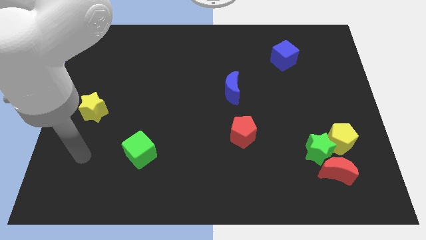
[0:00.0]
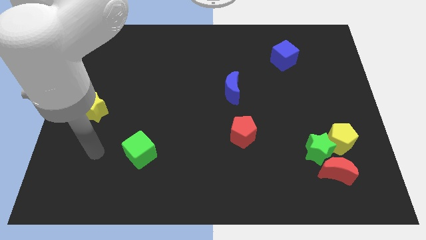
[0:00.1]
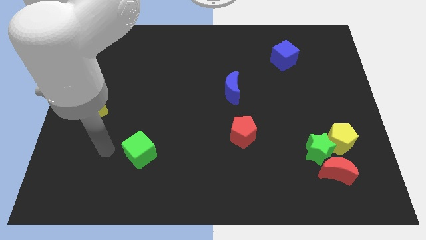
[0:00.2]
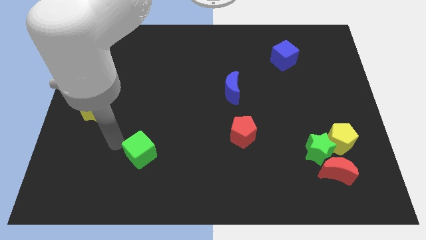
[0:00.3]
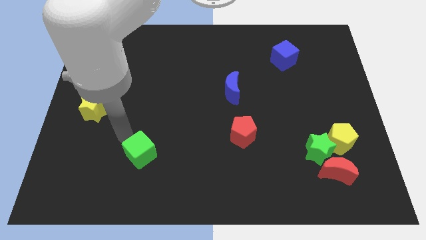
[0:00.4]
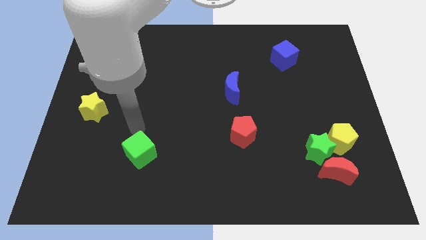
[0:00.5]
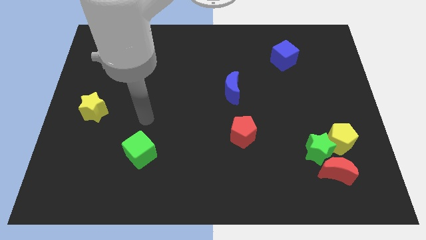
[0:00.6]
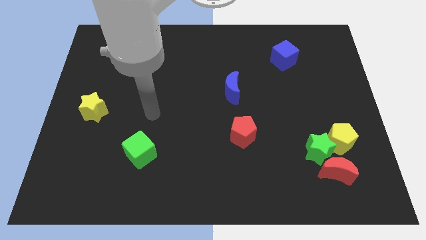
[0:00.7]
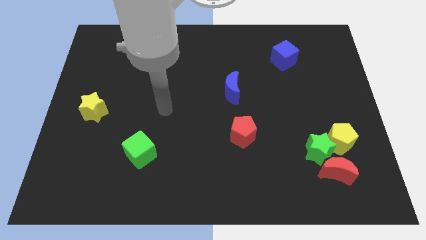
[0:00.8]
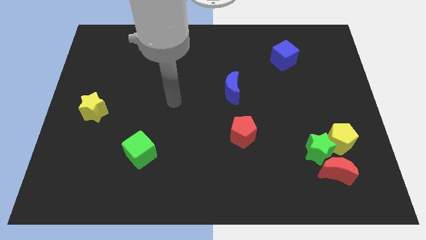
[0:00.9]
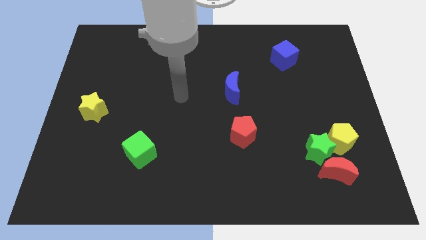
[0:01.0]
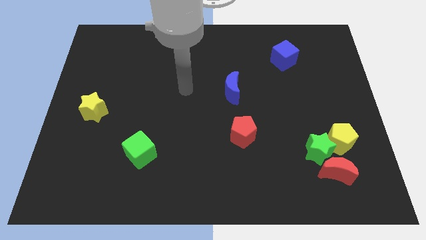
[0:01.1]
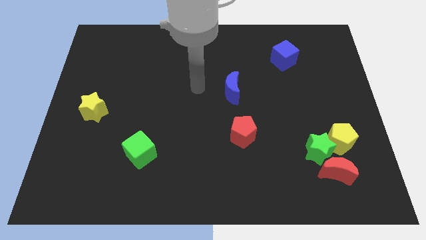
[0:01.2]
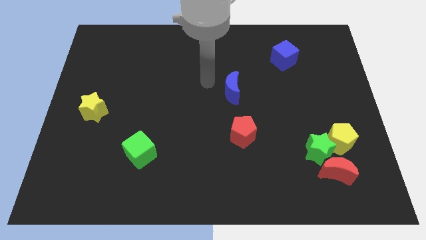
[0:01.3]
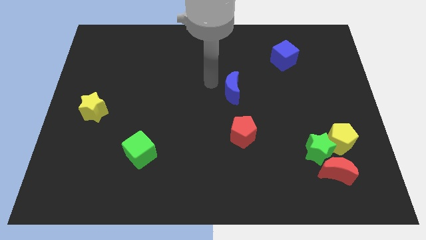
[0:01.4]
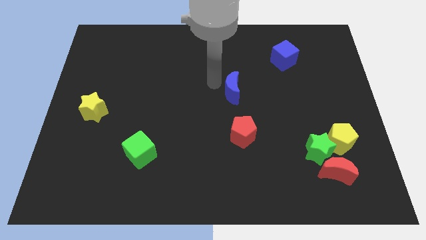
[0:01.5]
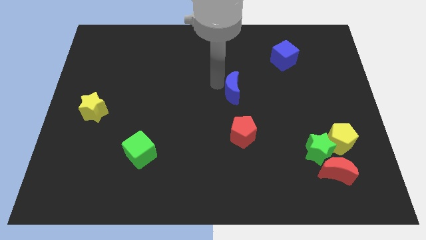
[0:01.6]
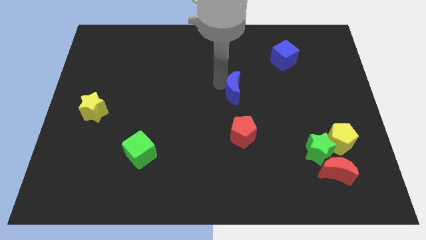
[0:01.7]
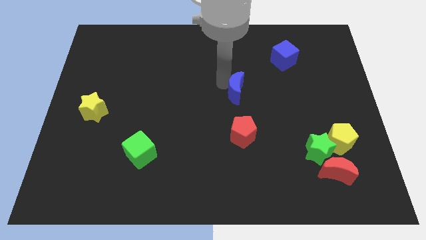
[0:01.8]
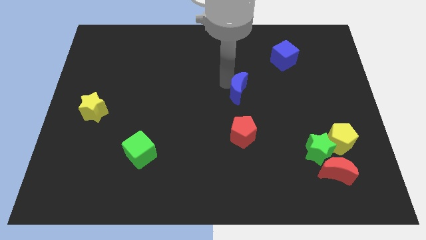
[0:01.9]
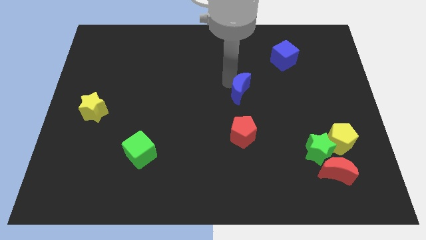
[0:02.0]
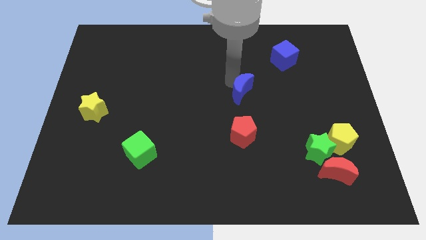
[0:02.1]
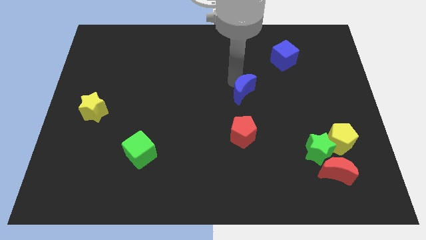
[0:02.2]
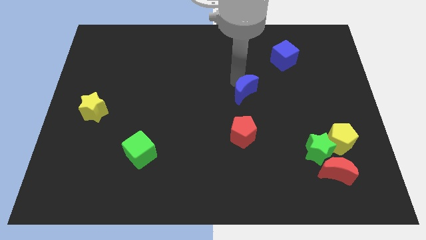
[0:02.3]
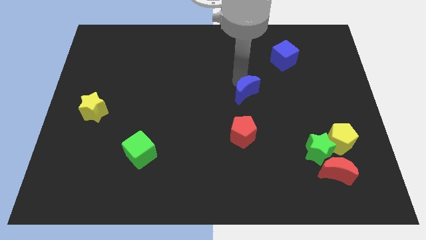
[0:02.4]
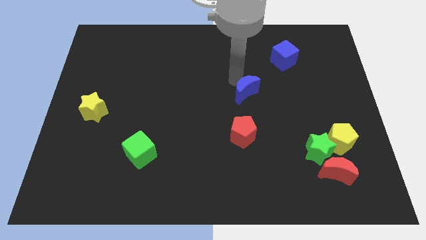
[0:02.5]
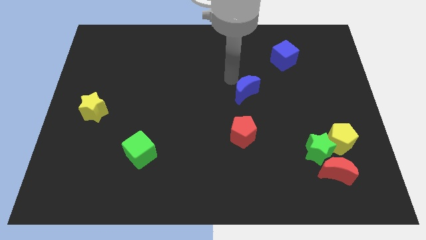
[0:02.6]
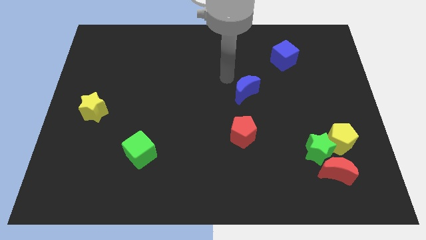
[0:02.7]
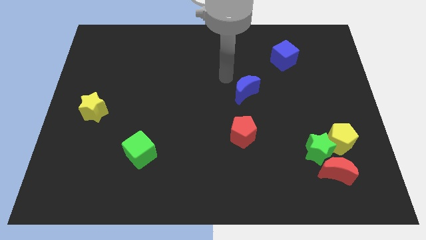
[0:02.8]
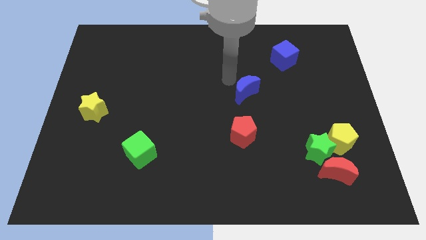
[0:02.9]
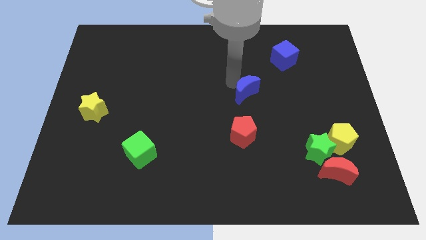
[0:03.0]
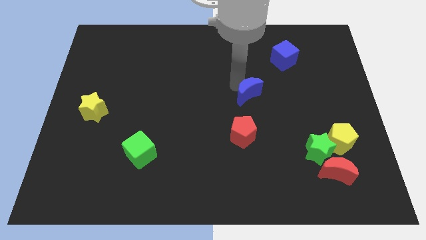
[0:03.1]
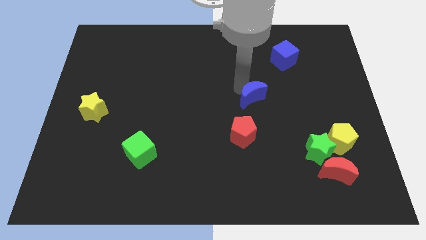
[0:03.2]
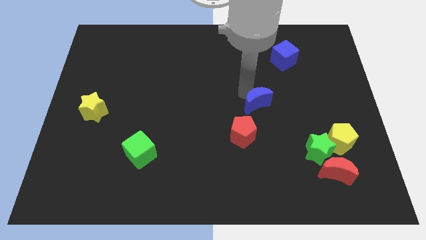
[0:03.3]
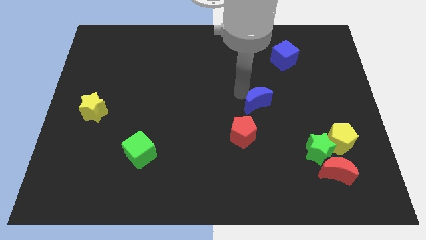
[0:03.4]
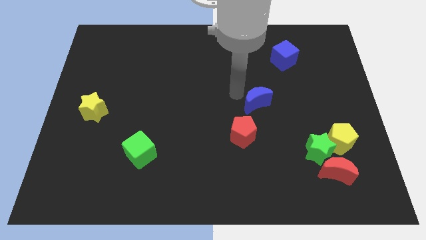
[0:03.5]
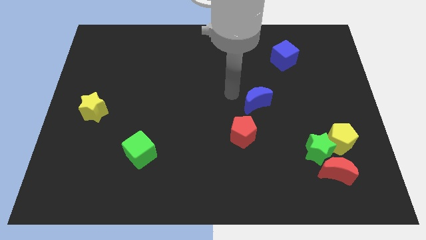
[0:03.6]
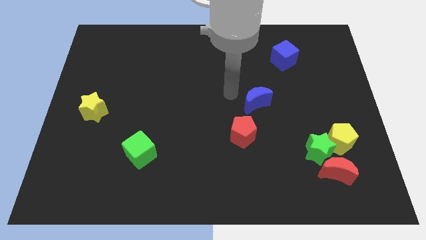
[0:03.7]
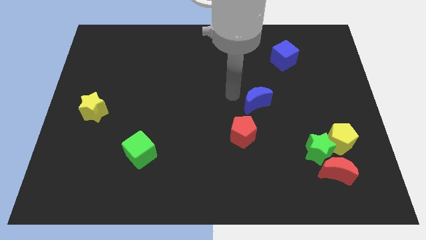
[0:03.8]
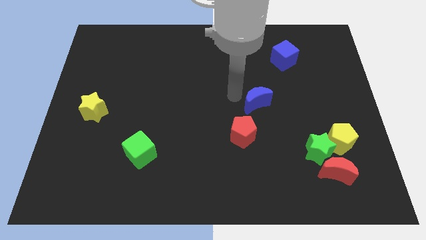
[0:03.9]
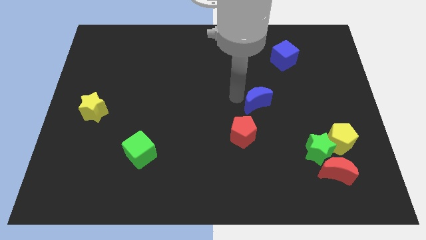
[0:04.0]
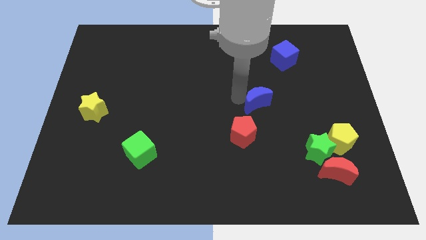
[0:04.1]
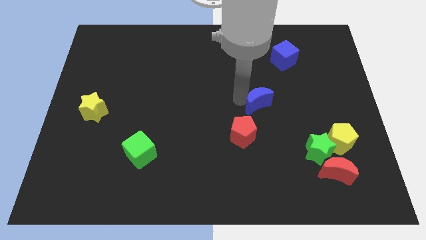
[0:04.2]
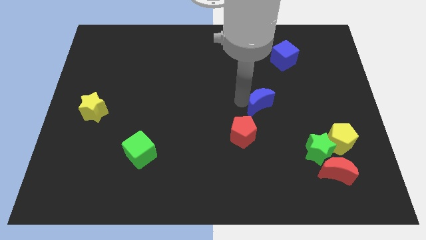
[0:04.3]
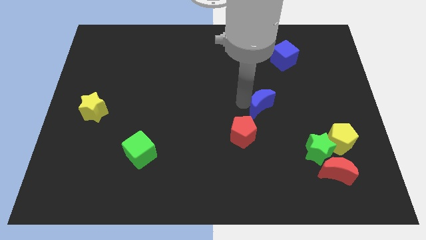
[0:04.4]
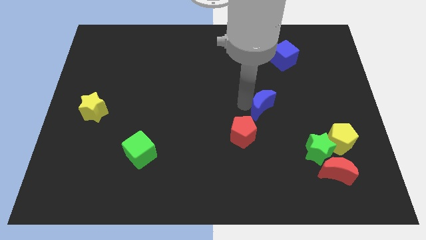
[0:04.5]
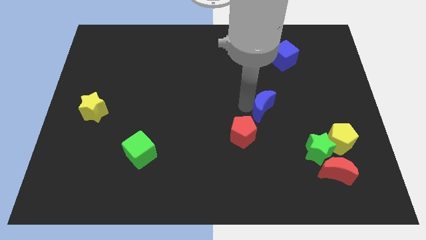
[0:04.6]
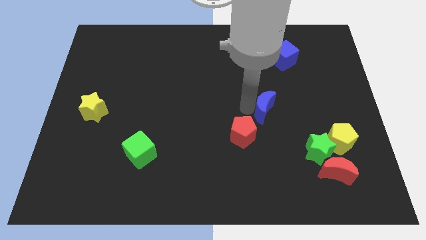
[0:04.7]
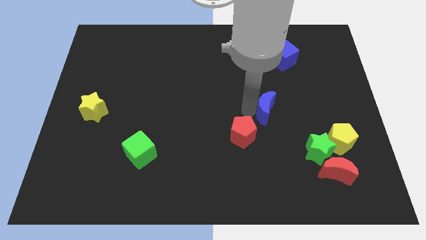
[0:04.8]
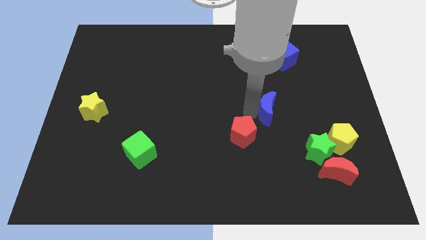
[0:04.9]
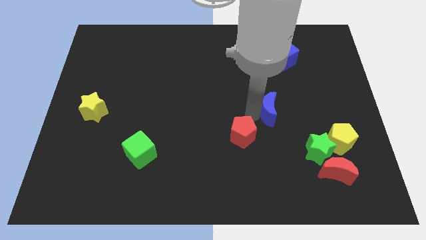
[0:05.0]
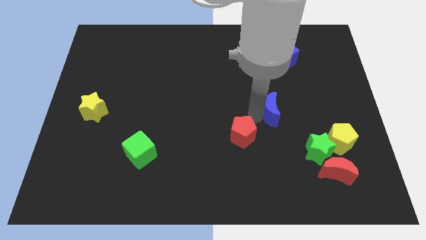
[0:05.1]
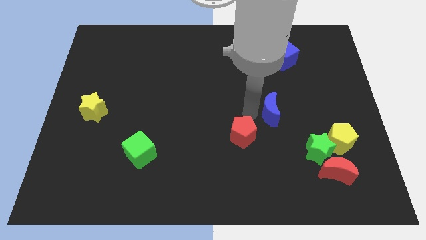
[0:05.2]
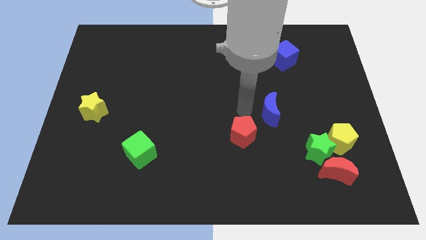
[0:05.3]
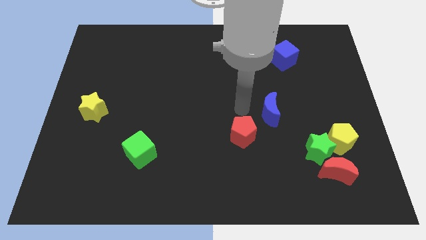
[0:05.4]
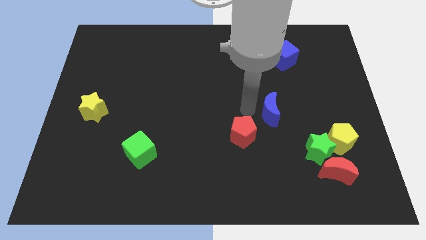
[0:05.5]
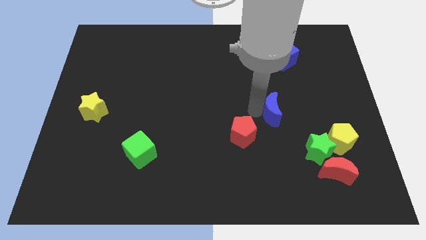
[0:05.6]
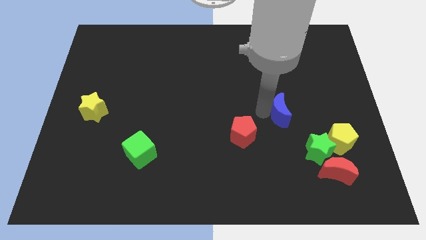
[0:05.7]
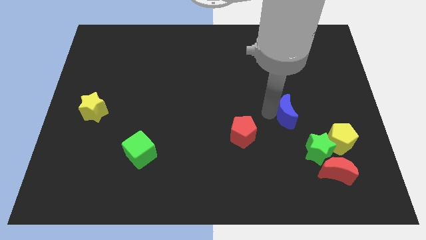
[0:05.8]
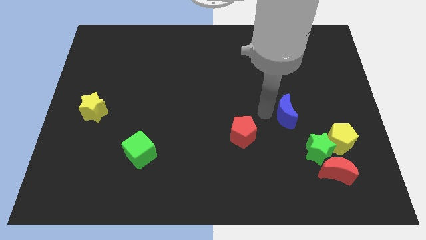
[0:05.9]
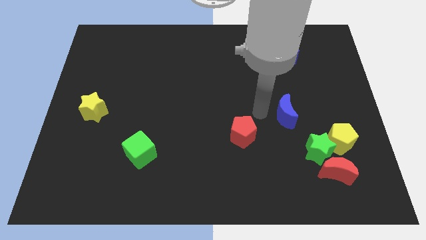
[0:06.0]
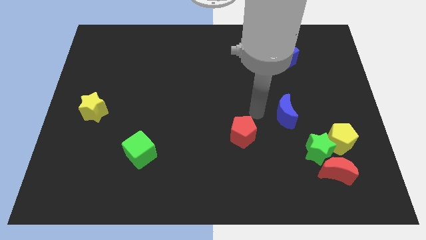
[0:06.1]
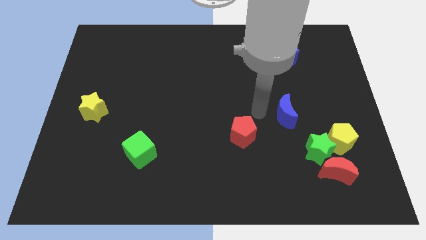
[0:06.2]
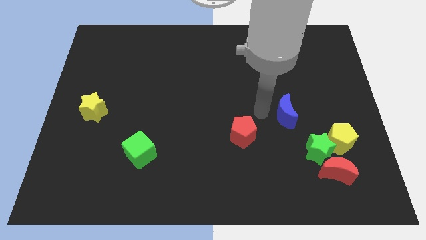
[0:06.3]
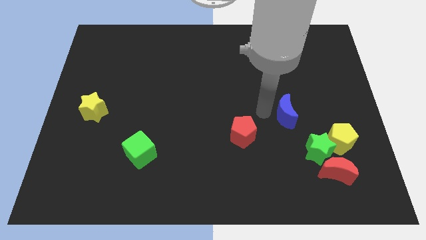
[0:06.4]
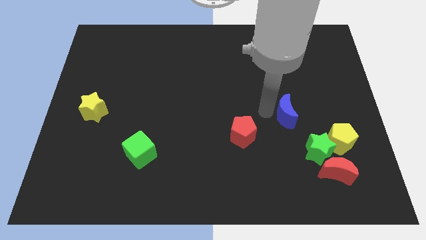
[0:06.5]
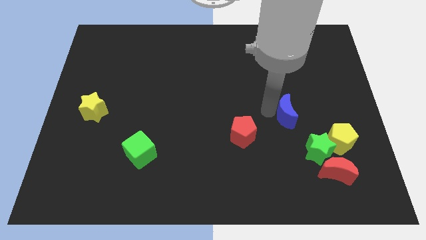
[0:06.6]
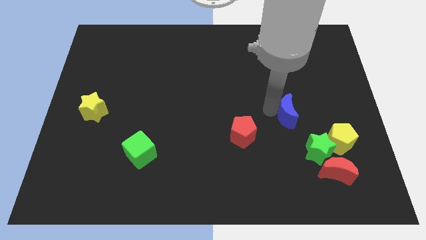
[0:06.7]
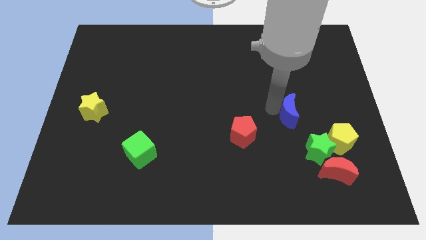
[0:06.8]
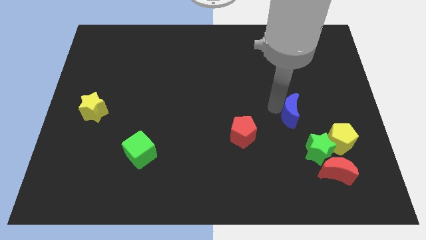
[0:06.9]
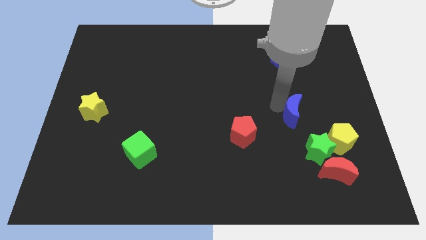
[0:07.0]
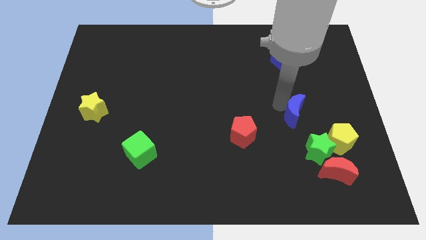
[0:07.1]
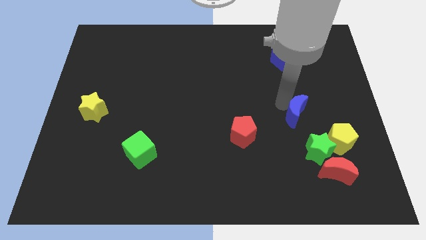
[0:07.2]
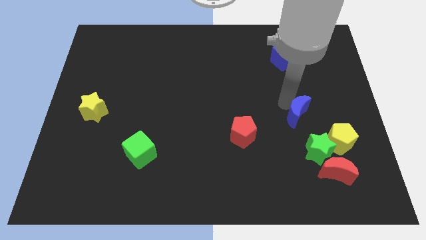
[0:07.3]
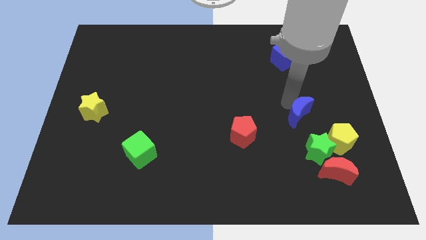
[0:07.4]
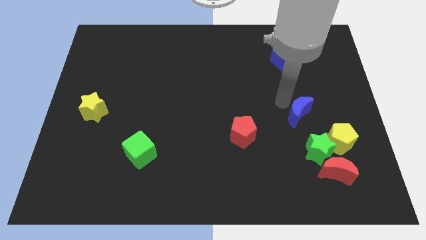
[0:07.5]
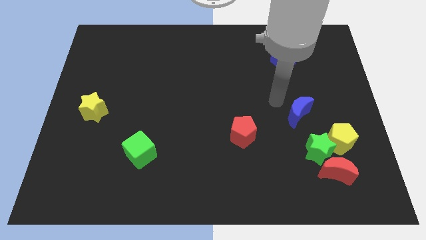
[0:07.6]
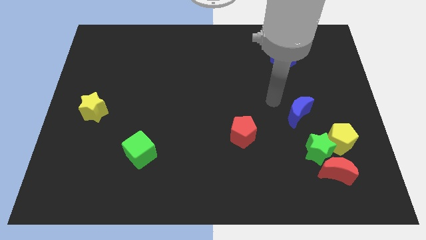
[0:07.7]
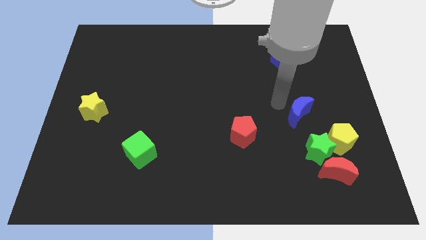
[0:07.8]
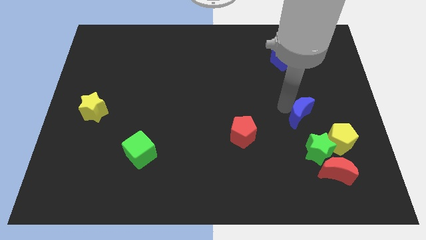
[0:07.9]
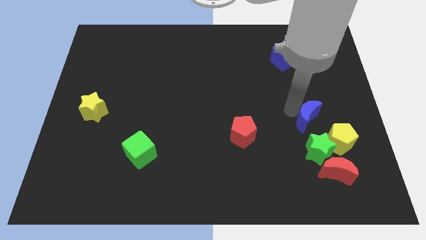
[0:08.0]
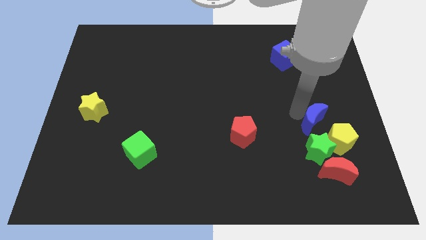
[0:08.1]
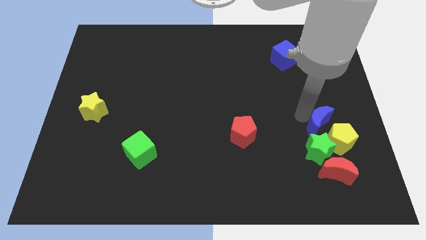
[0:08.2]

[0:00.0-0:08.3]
put the blue moon close to the yellow pentagon
